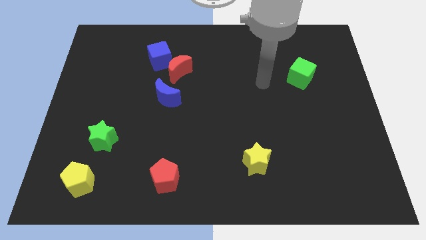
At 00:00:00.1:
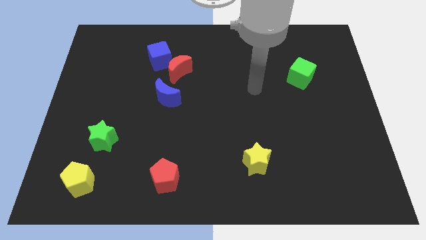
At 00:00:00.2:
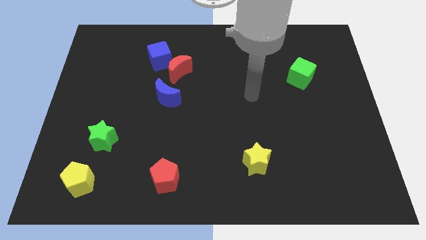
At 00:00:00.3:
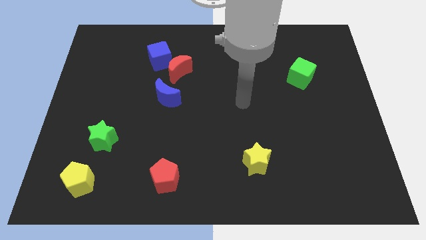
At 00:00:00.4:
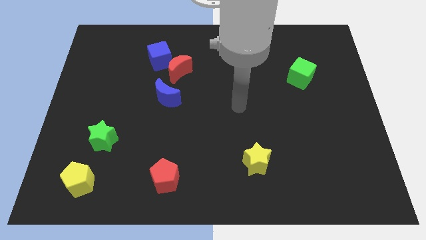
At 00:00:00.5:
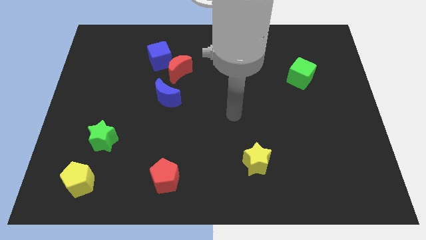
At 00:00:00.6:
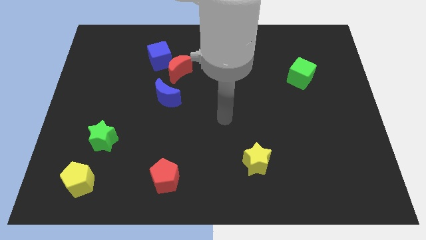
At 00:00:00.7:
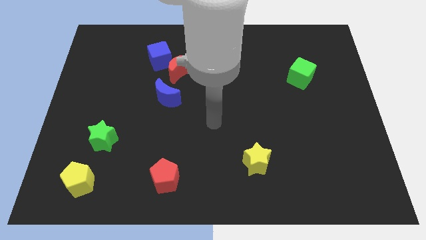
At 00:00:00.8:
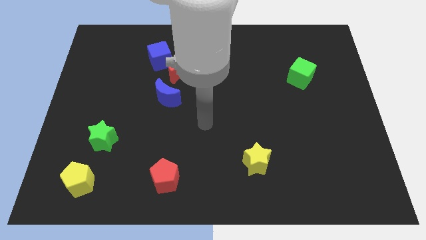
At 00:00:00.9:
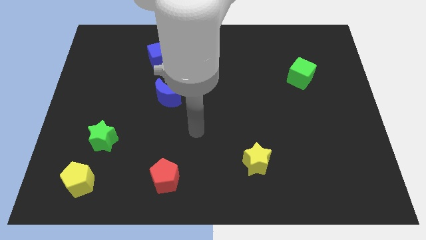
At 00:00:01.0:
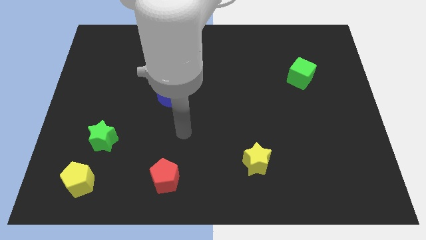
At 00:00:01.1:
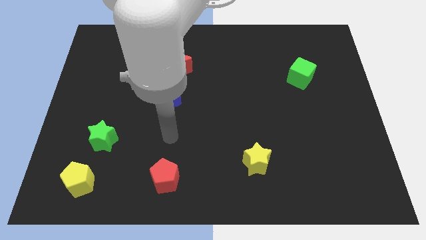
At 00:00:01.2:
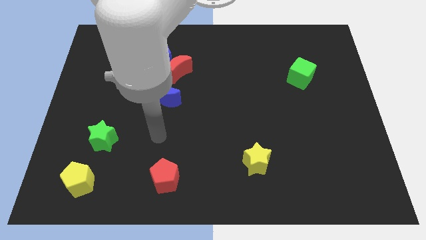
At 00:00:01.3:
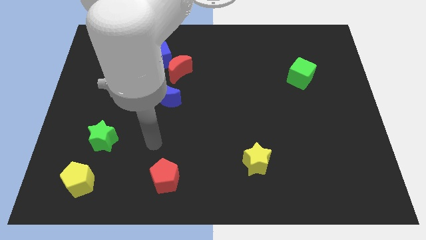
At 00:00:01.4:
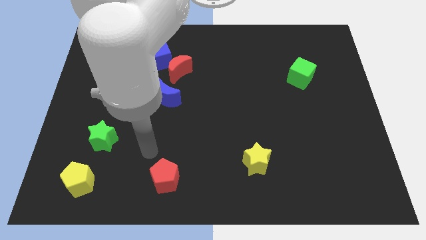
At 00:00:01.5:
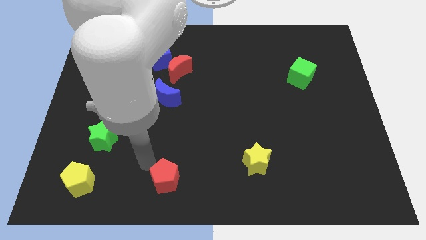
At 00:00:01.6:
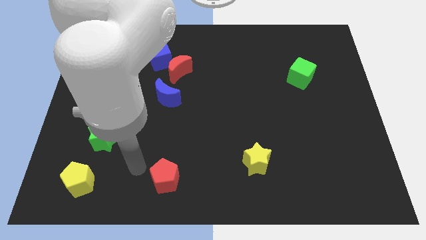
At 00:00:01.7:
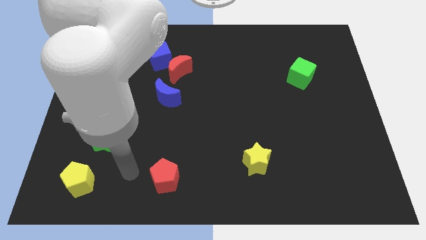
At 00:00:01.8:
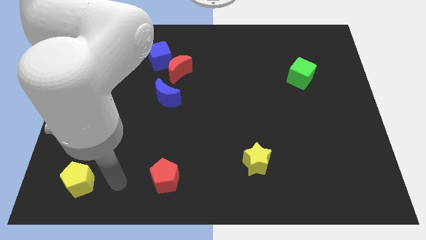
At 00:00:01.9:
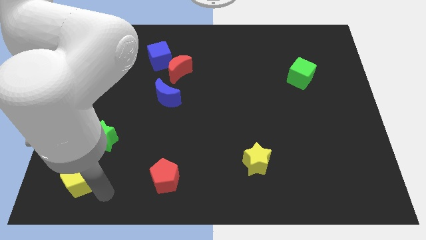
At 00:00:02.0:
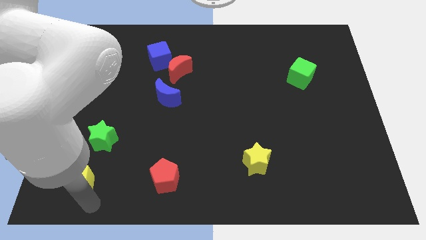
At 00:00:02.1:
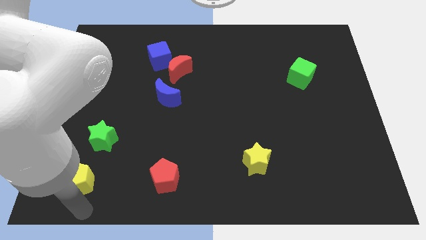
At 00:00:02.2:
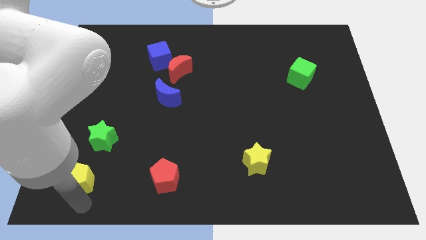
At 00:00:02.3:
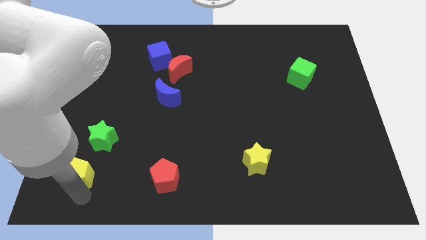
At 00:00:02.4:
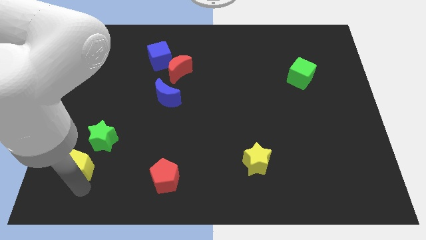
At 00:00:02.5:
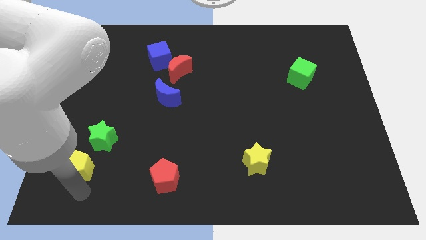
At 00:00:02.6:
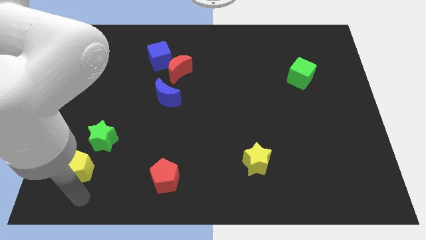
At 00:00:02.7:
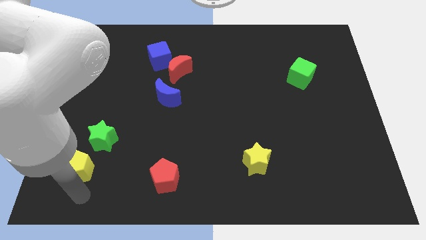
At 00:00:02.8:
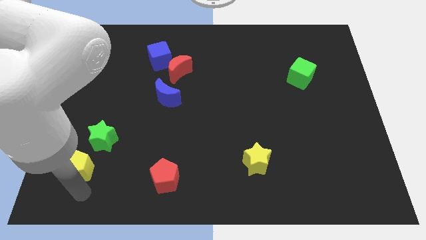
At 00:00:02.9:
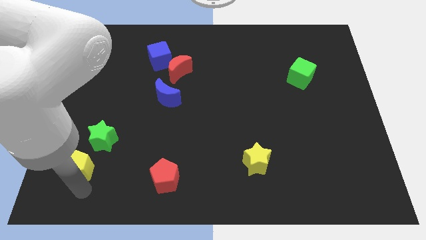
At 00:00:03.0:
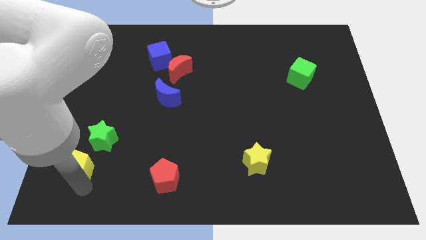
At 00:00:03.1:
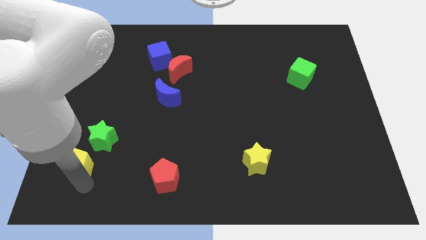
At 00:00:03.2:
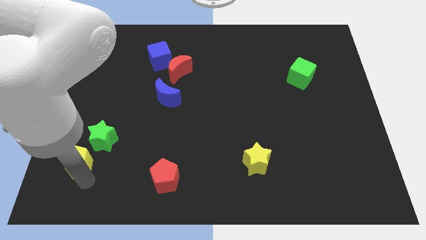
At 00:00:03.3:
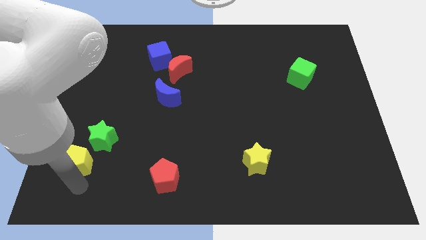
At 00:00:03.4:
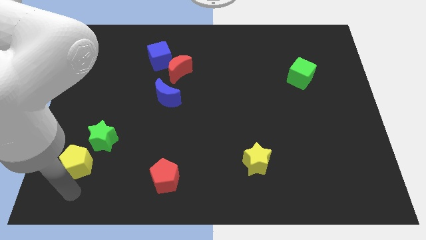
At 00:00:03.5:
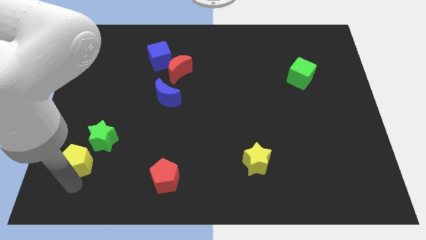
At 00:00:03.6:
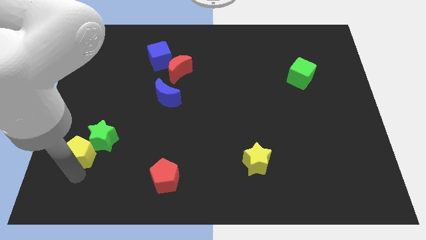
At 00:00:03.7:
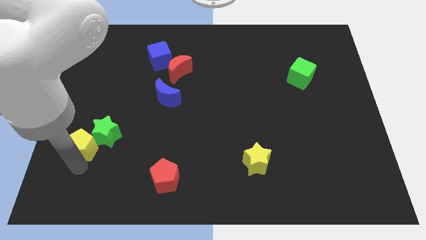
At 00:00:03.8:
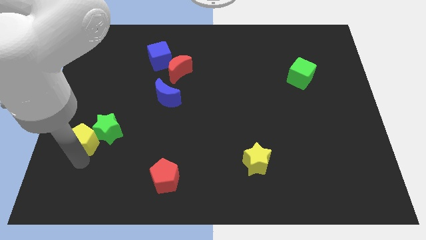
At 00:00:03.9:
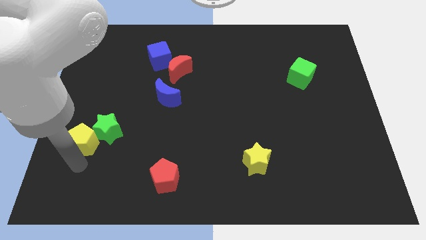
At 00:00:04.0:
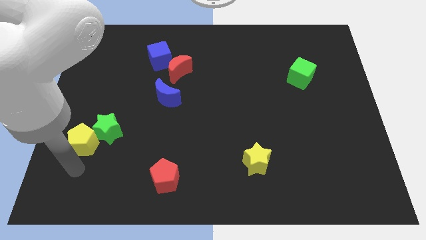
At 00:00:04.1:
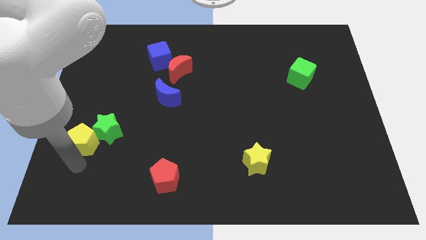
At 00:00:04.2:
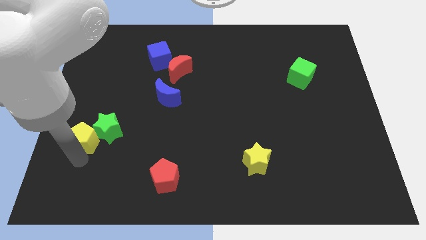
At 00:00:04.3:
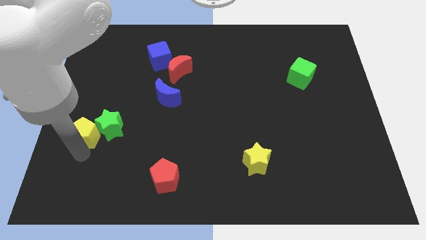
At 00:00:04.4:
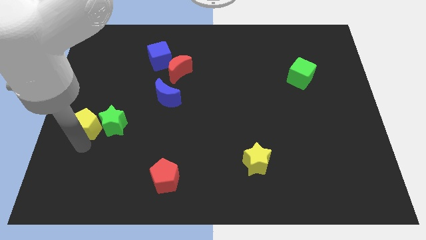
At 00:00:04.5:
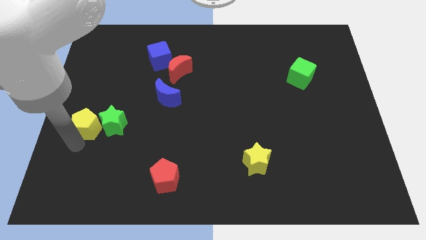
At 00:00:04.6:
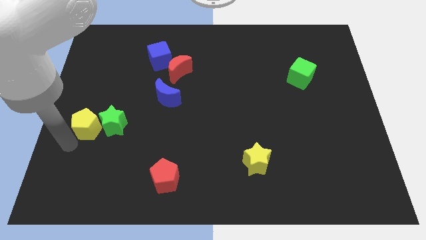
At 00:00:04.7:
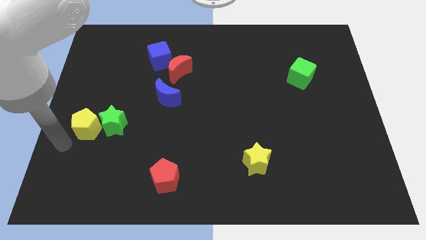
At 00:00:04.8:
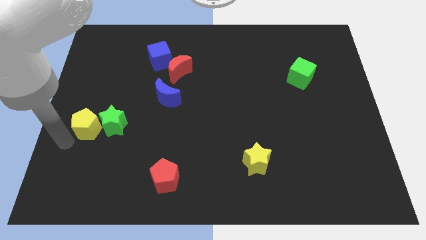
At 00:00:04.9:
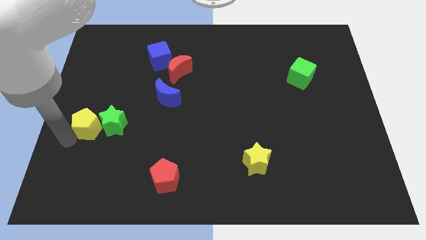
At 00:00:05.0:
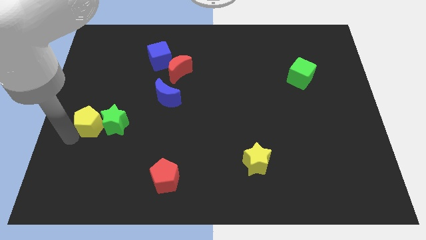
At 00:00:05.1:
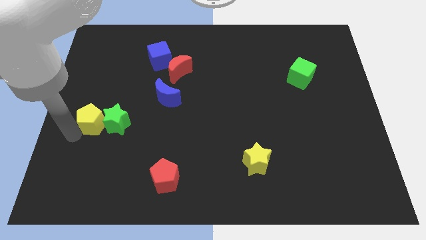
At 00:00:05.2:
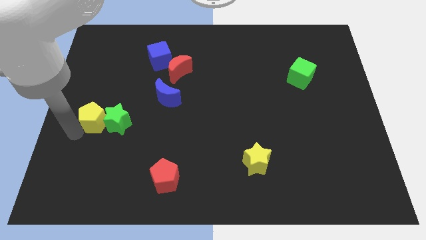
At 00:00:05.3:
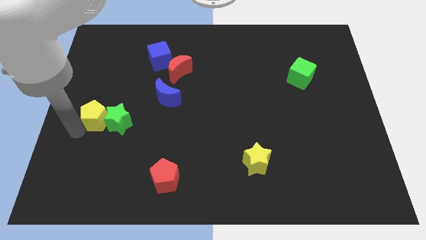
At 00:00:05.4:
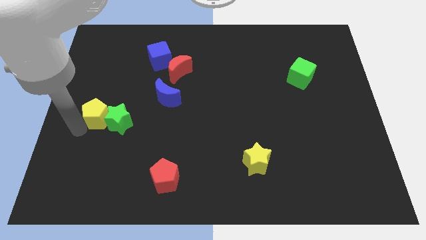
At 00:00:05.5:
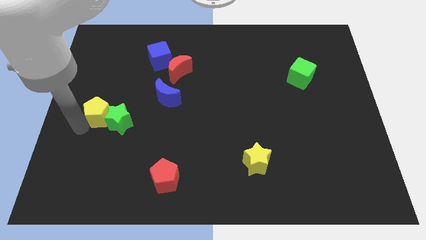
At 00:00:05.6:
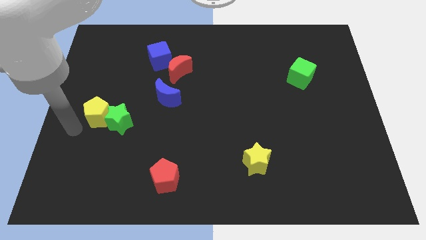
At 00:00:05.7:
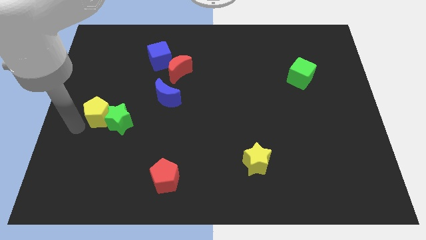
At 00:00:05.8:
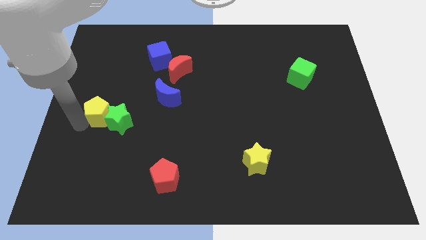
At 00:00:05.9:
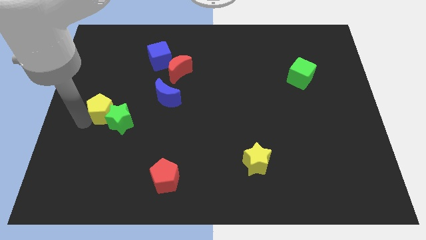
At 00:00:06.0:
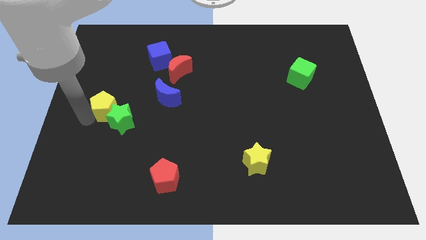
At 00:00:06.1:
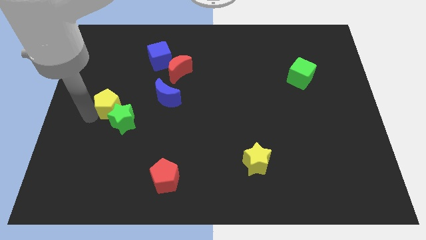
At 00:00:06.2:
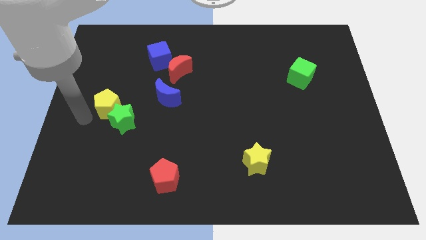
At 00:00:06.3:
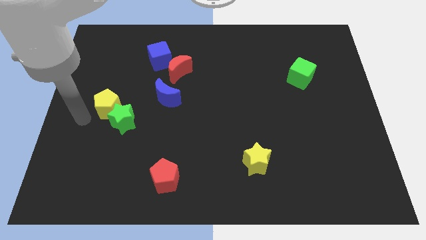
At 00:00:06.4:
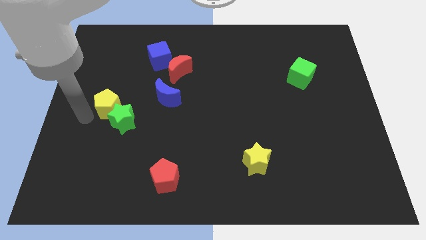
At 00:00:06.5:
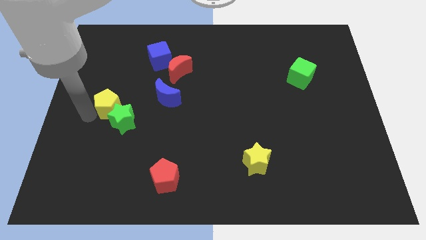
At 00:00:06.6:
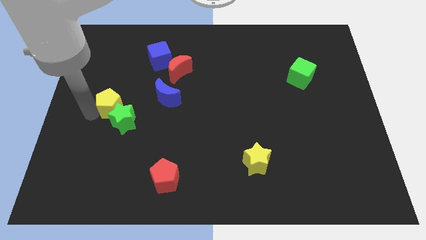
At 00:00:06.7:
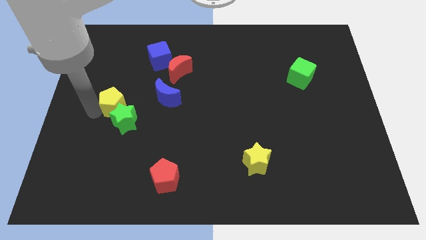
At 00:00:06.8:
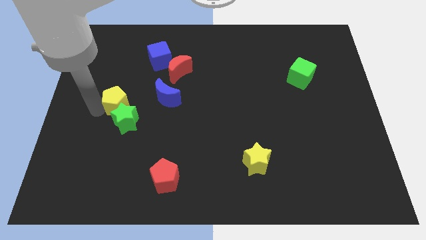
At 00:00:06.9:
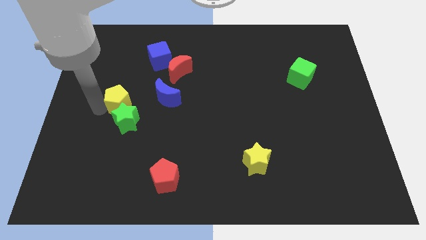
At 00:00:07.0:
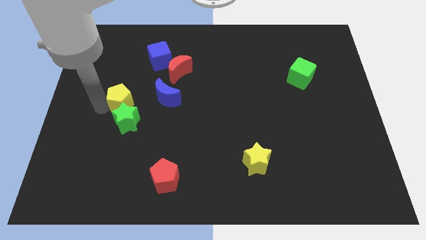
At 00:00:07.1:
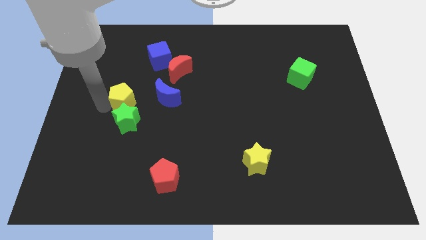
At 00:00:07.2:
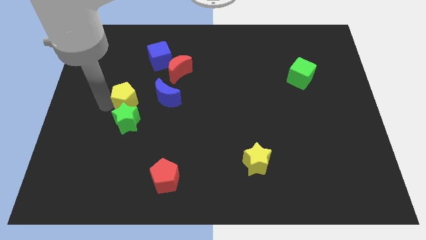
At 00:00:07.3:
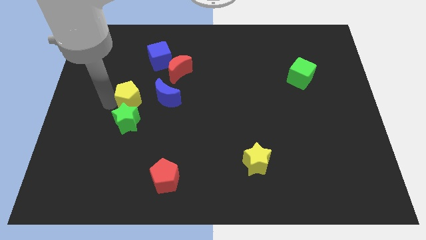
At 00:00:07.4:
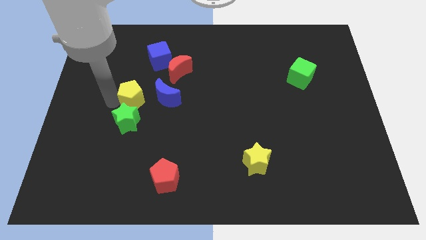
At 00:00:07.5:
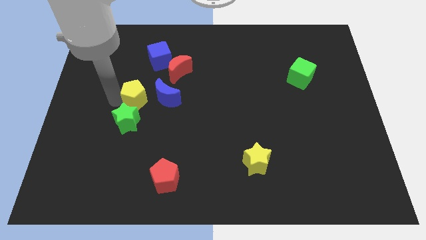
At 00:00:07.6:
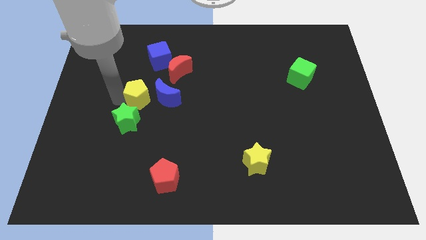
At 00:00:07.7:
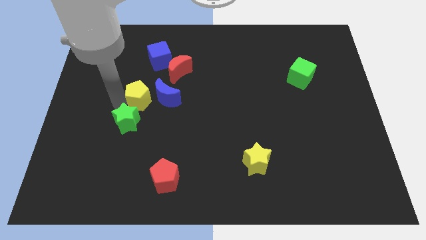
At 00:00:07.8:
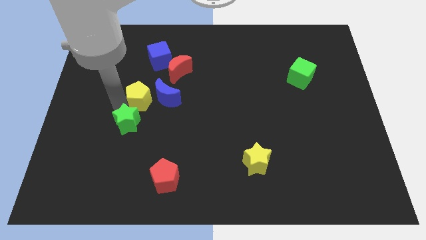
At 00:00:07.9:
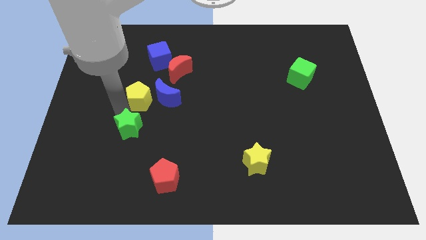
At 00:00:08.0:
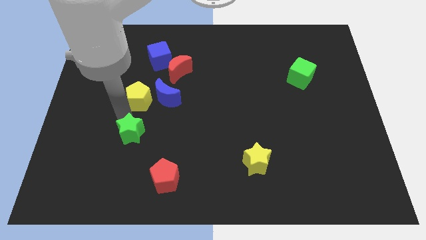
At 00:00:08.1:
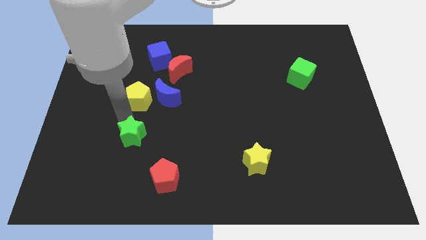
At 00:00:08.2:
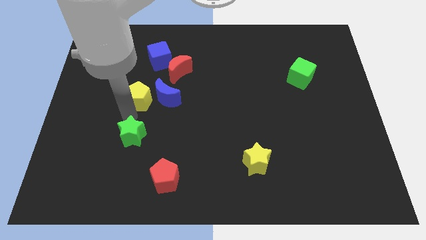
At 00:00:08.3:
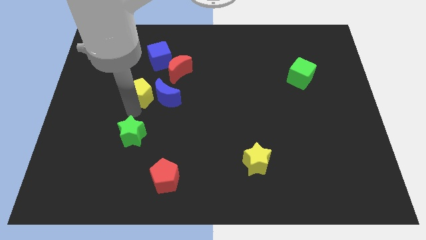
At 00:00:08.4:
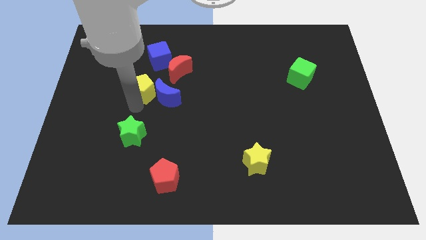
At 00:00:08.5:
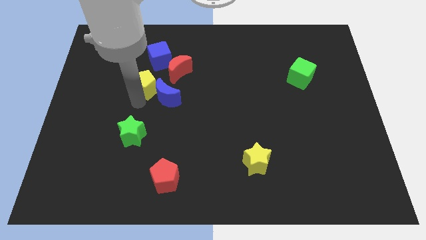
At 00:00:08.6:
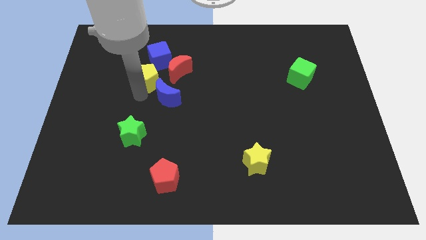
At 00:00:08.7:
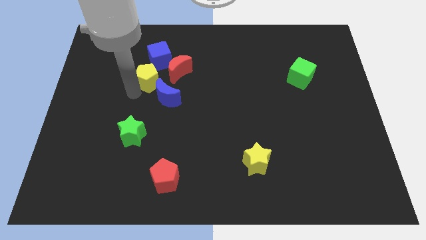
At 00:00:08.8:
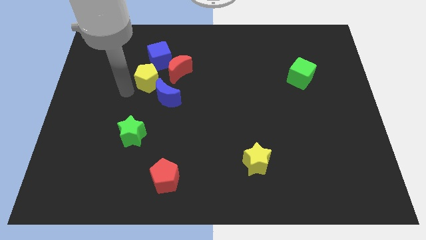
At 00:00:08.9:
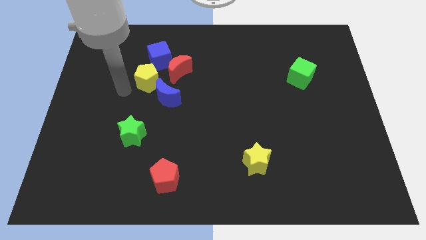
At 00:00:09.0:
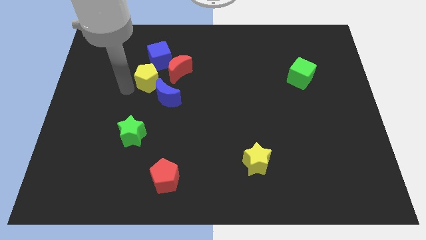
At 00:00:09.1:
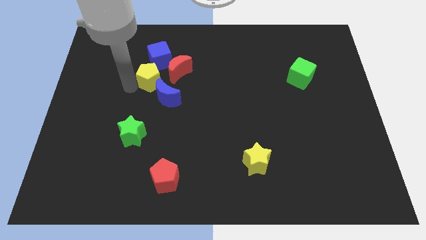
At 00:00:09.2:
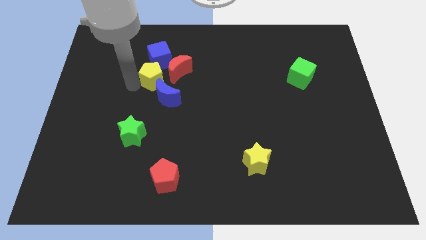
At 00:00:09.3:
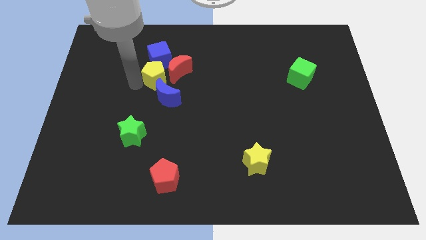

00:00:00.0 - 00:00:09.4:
slide the yellow pentagon to the red moon
